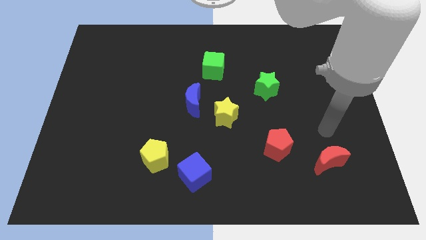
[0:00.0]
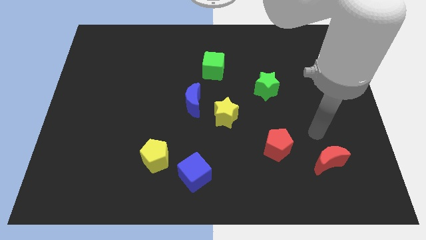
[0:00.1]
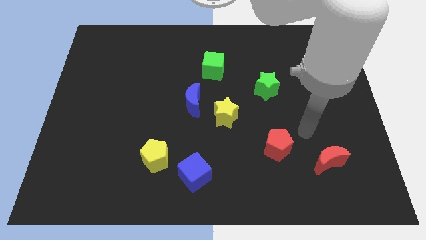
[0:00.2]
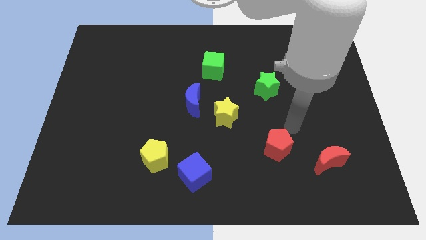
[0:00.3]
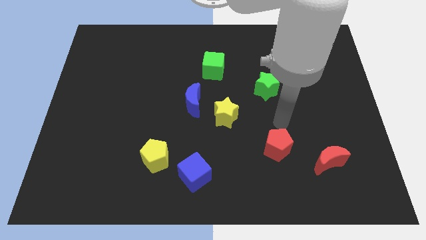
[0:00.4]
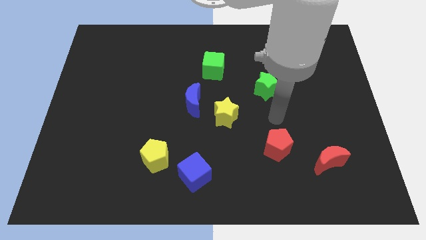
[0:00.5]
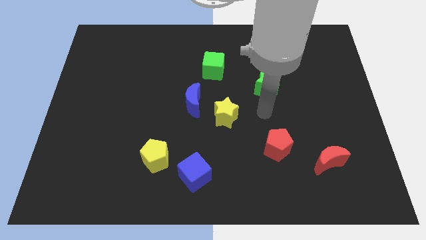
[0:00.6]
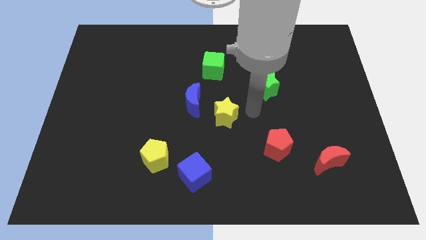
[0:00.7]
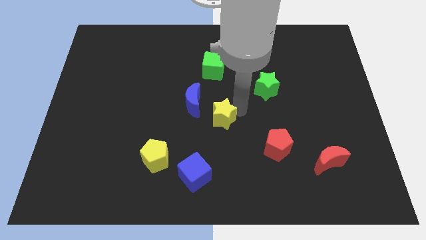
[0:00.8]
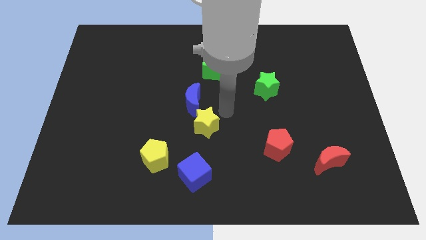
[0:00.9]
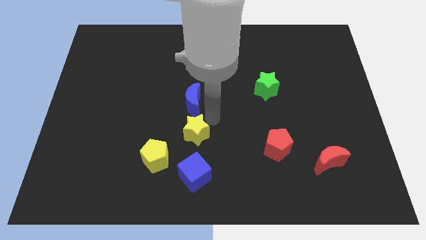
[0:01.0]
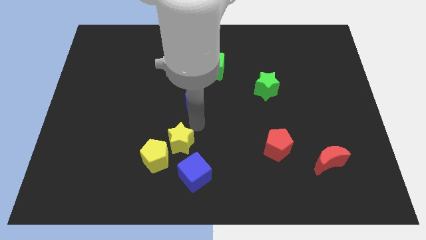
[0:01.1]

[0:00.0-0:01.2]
move the blue moon away from the yellow star

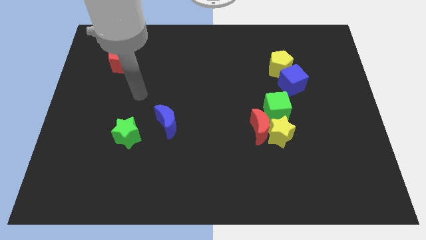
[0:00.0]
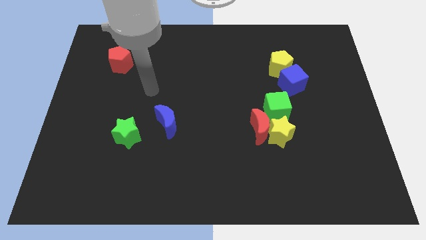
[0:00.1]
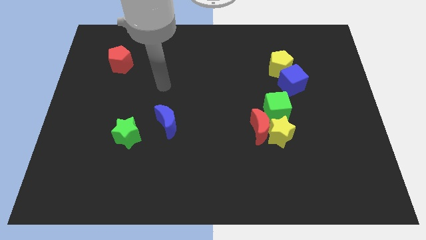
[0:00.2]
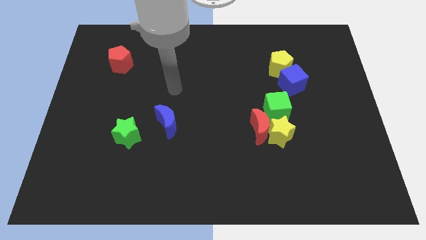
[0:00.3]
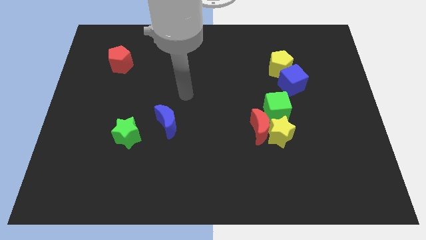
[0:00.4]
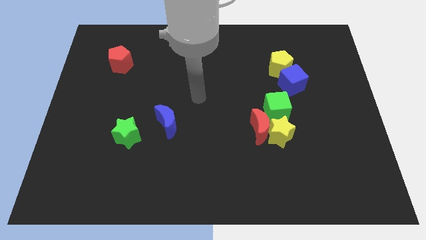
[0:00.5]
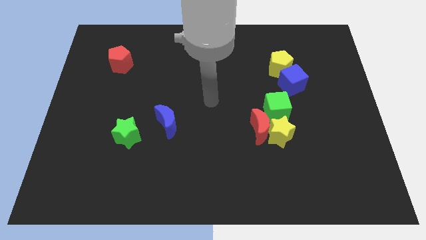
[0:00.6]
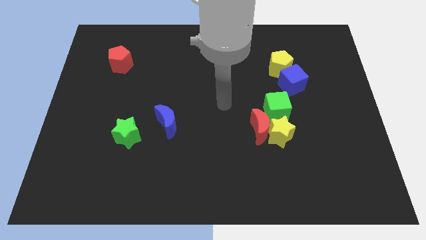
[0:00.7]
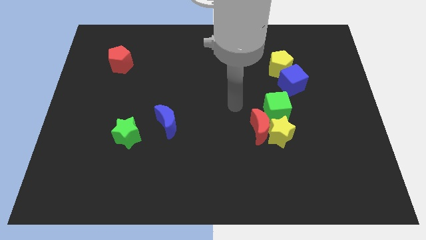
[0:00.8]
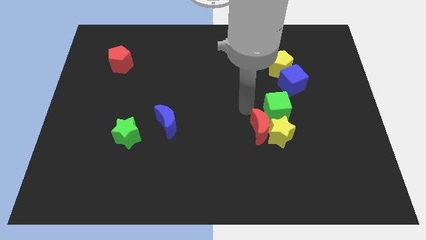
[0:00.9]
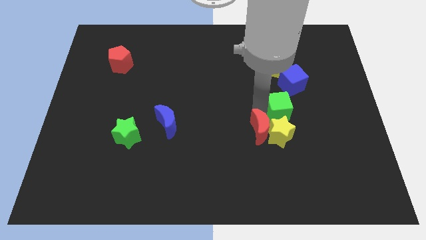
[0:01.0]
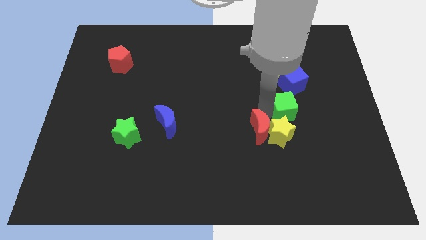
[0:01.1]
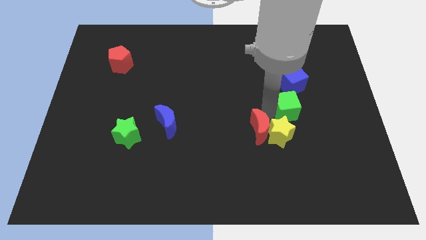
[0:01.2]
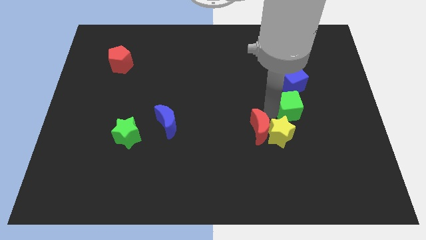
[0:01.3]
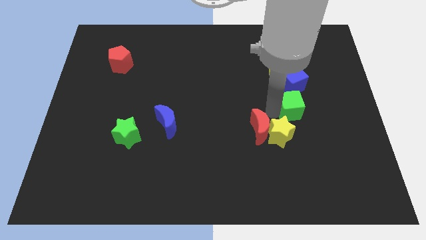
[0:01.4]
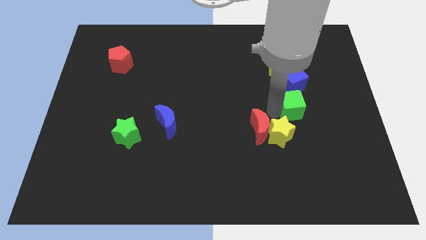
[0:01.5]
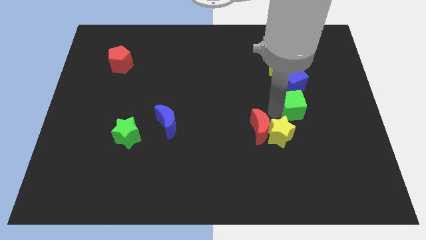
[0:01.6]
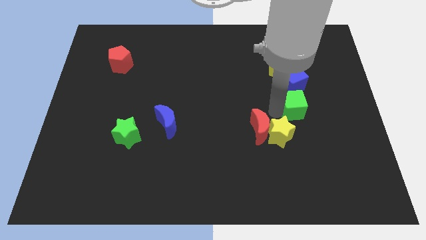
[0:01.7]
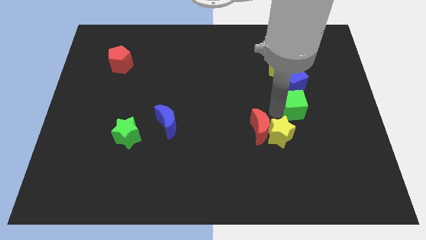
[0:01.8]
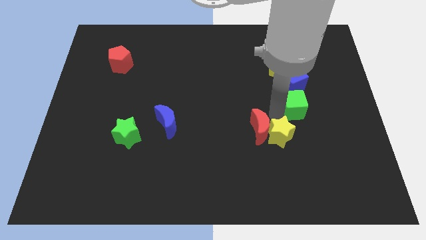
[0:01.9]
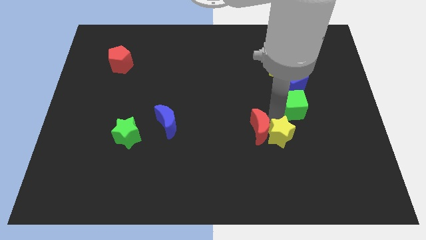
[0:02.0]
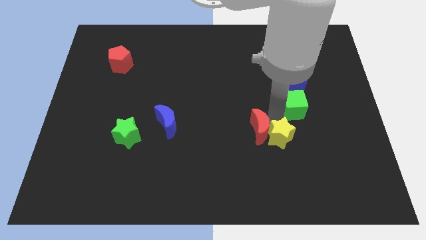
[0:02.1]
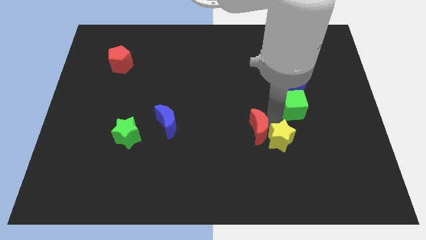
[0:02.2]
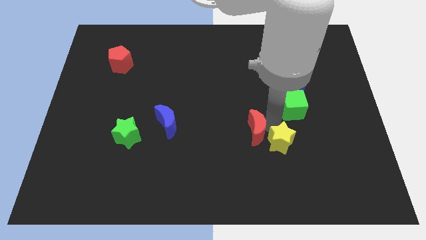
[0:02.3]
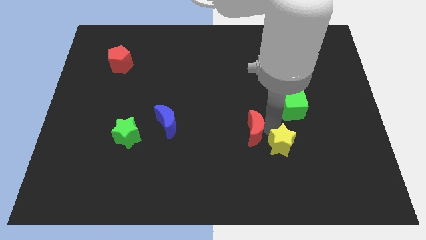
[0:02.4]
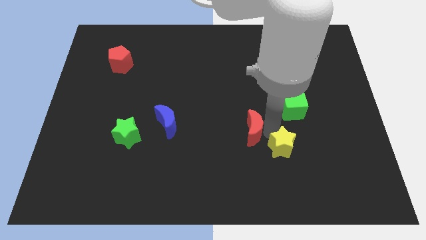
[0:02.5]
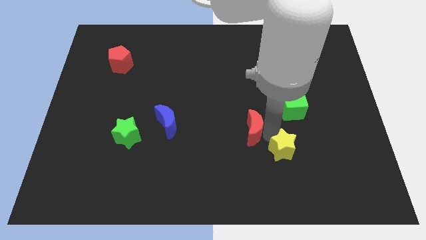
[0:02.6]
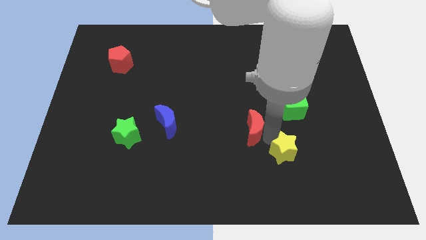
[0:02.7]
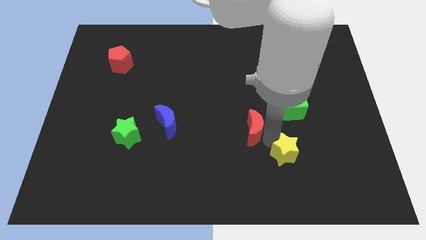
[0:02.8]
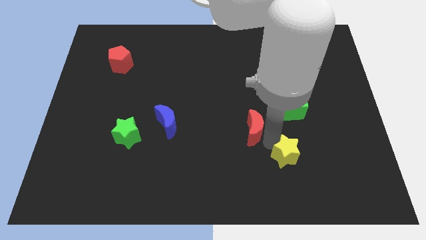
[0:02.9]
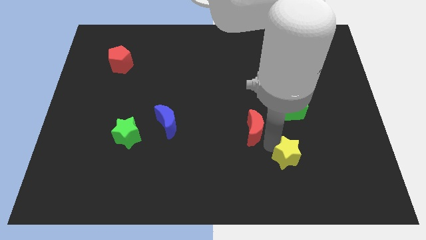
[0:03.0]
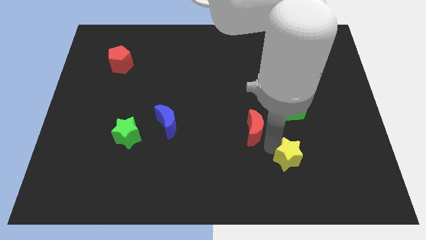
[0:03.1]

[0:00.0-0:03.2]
pull the yellow star apart from the red moon and green cube

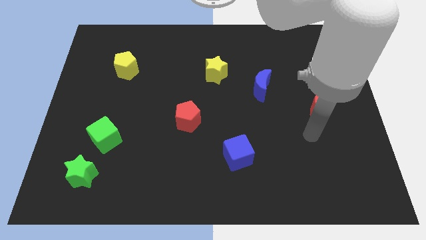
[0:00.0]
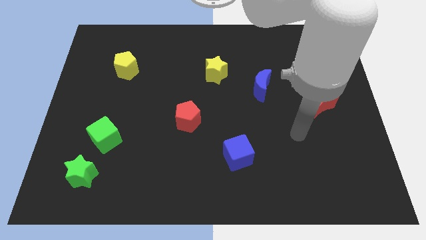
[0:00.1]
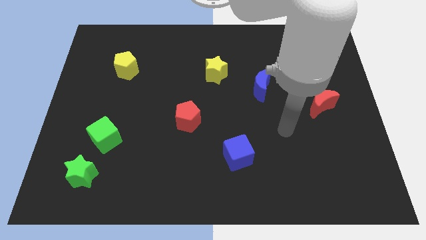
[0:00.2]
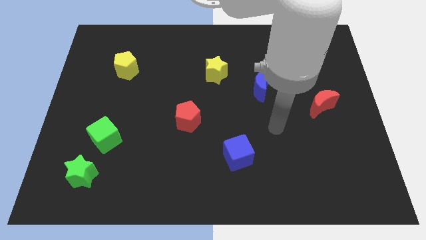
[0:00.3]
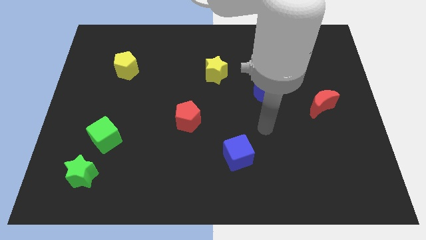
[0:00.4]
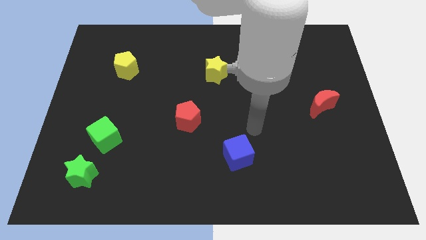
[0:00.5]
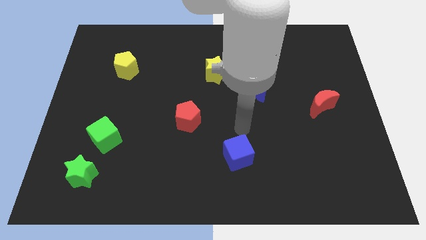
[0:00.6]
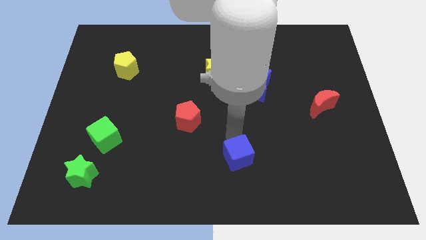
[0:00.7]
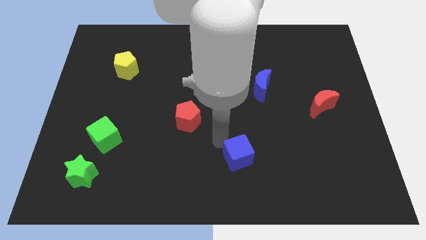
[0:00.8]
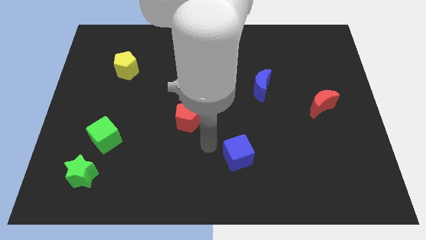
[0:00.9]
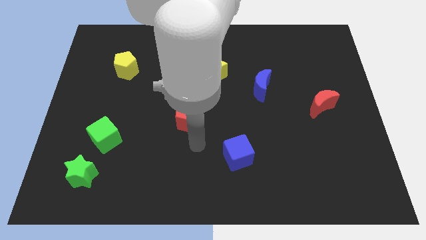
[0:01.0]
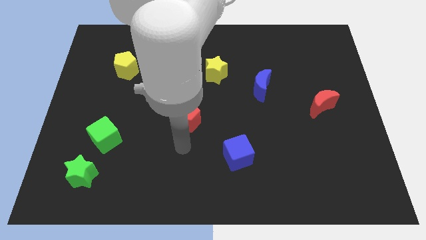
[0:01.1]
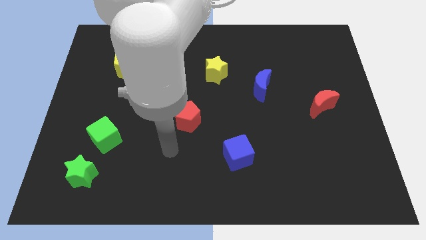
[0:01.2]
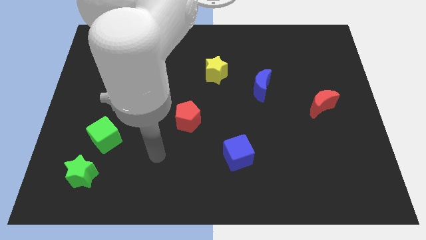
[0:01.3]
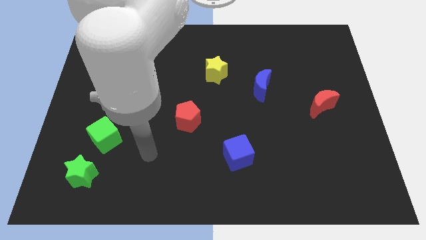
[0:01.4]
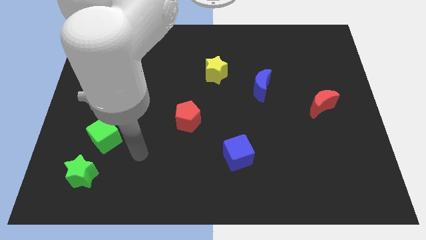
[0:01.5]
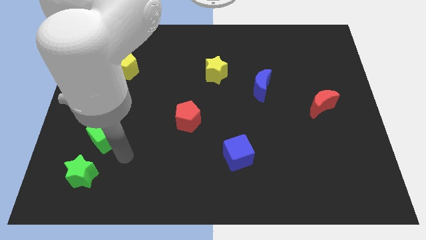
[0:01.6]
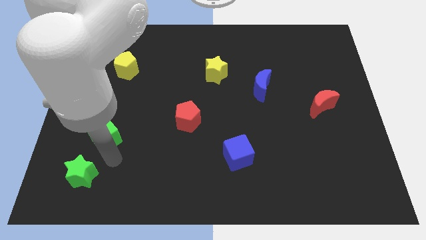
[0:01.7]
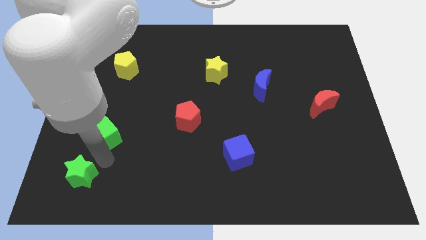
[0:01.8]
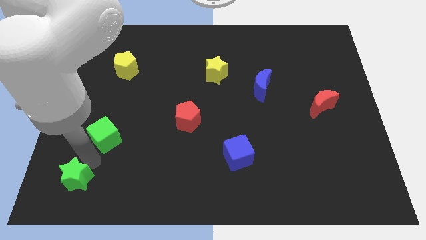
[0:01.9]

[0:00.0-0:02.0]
separate the green cube from the green star

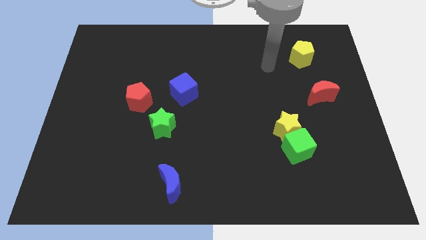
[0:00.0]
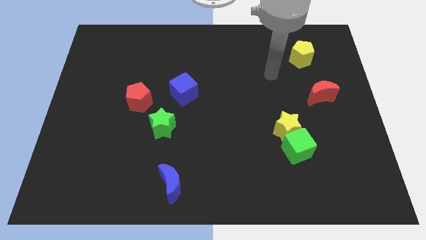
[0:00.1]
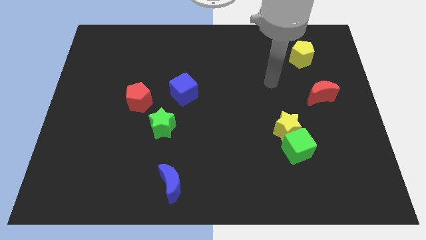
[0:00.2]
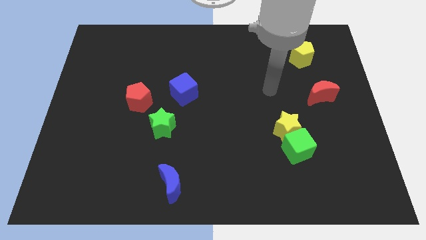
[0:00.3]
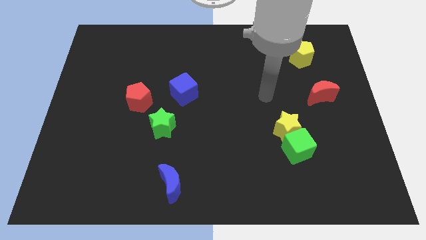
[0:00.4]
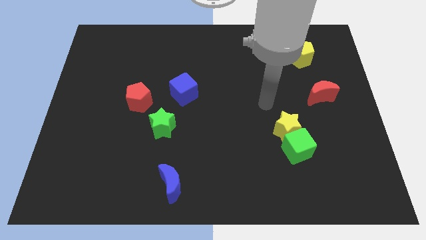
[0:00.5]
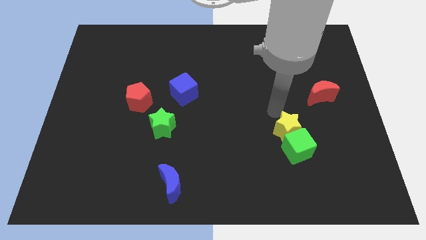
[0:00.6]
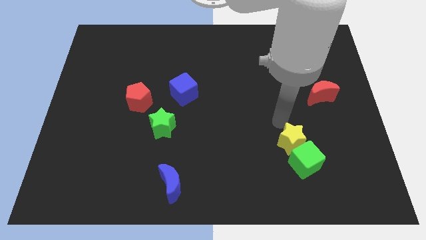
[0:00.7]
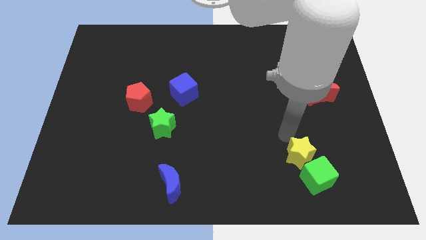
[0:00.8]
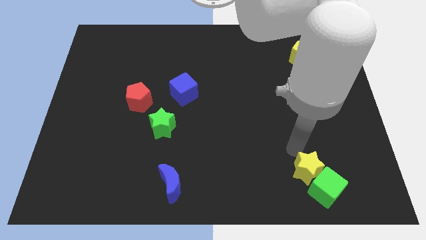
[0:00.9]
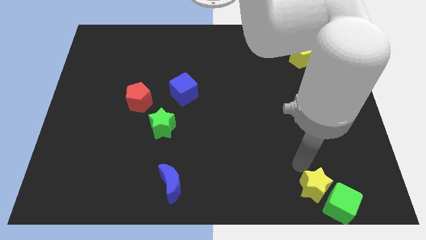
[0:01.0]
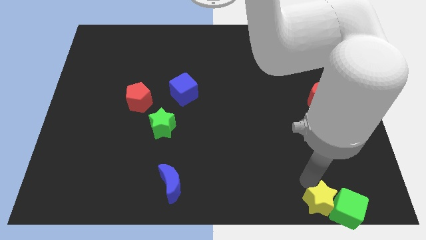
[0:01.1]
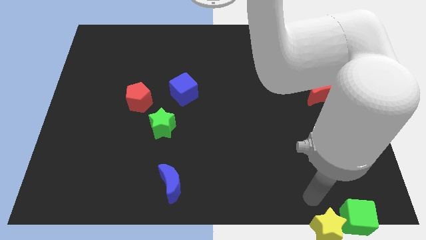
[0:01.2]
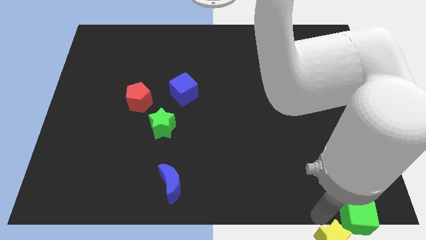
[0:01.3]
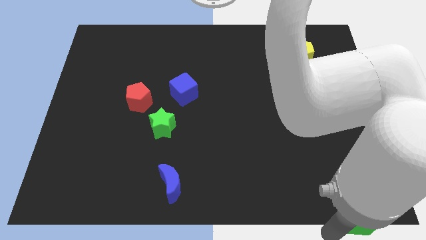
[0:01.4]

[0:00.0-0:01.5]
separate the green cube from the yellow star

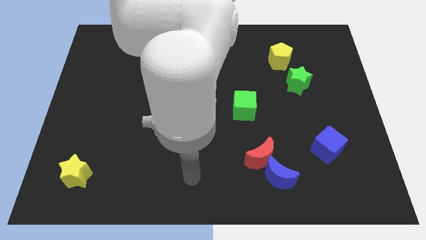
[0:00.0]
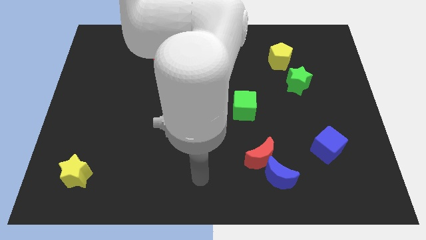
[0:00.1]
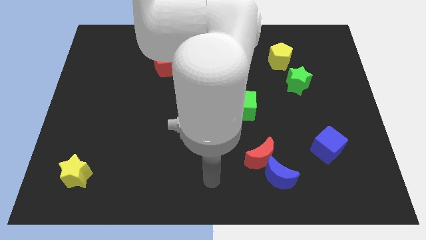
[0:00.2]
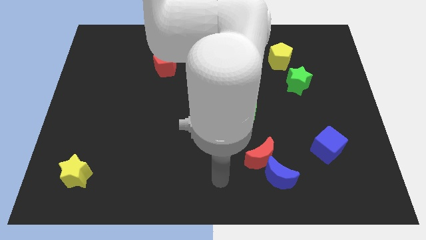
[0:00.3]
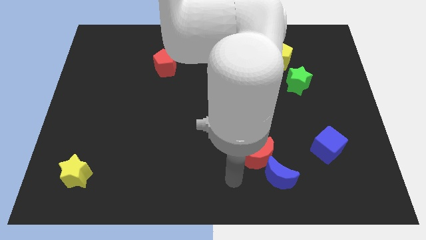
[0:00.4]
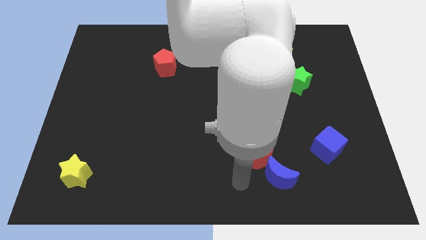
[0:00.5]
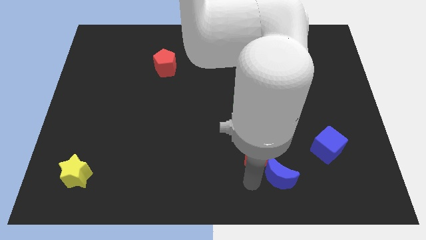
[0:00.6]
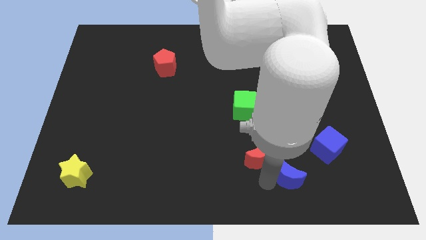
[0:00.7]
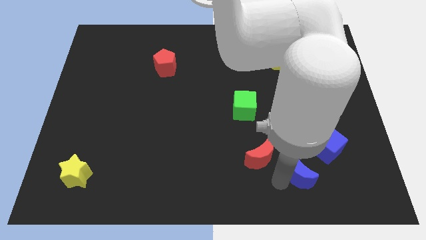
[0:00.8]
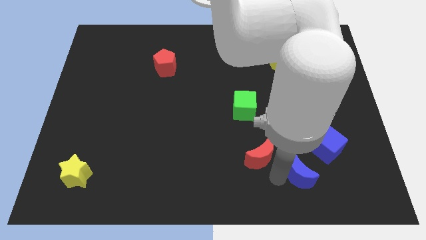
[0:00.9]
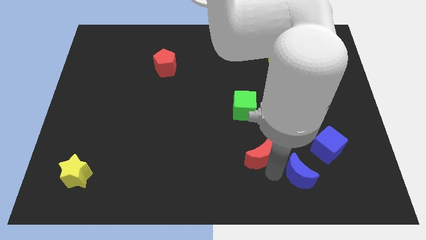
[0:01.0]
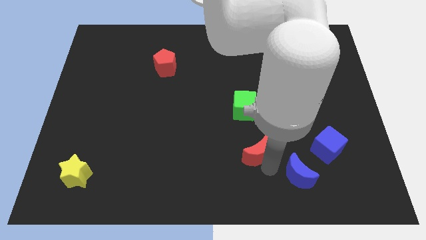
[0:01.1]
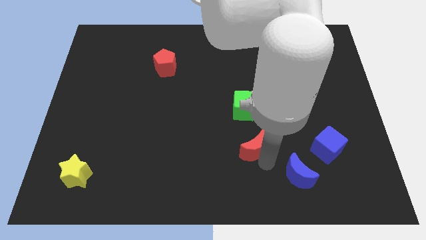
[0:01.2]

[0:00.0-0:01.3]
move the red moon away from the blue moon

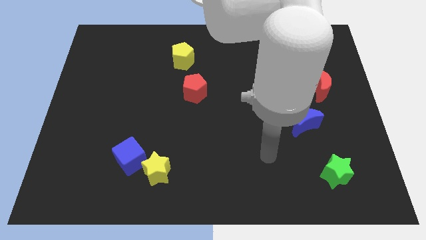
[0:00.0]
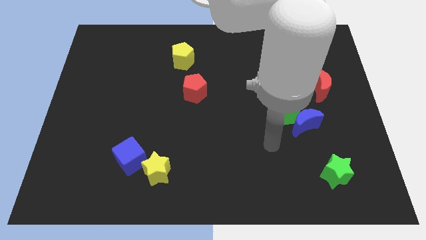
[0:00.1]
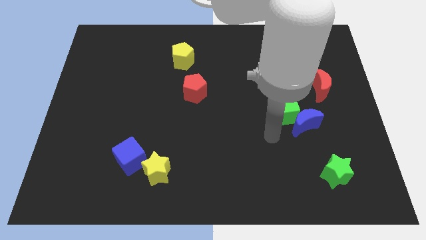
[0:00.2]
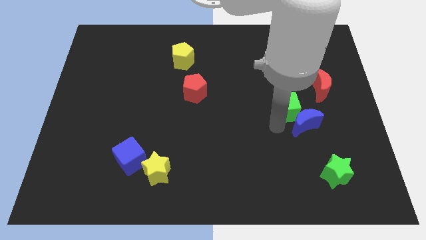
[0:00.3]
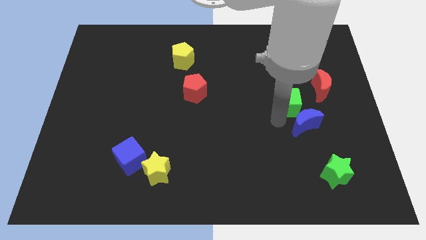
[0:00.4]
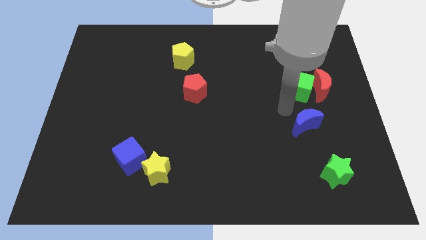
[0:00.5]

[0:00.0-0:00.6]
separate the blue moon from the green cube
